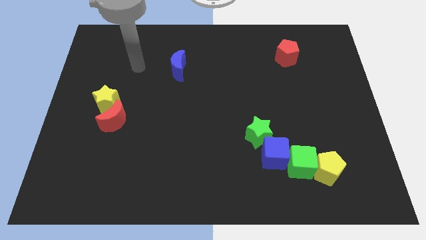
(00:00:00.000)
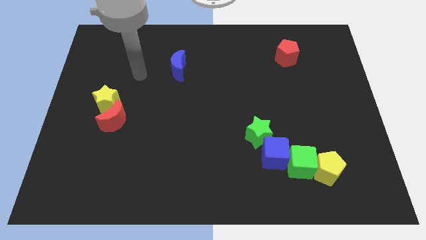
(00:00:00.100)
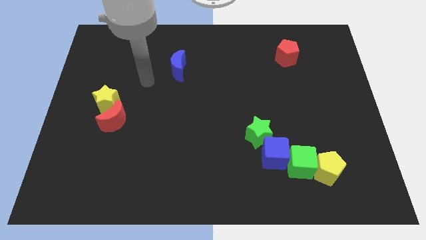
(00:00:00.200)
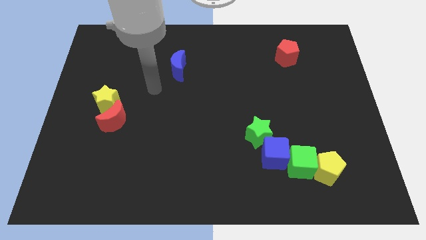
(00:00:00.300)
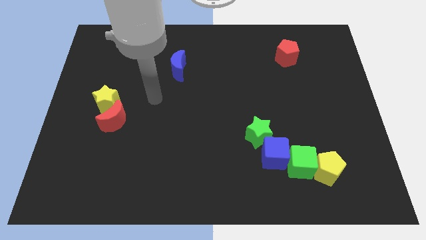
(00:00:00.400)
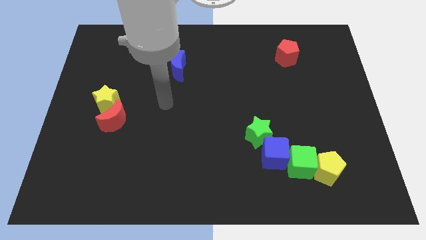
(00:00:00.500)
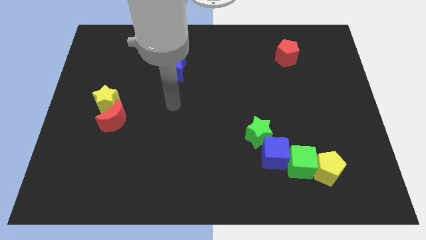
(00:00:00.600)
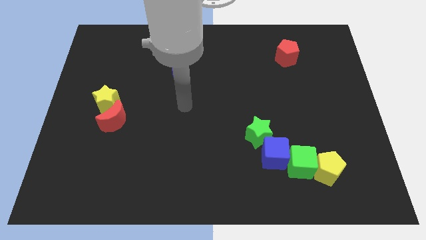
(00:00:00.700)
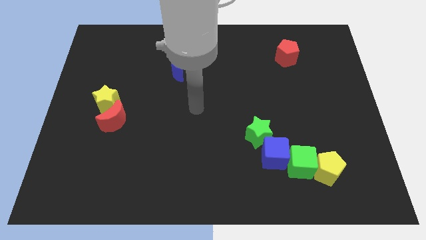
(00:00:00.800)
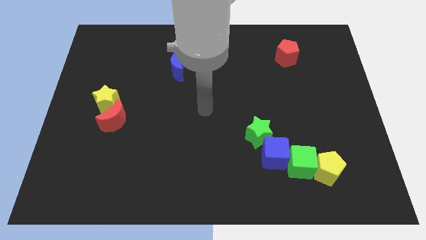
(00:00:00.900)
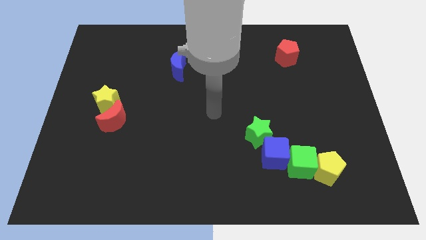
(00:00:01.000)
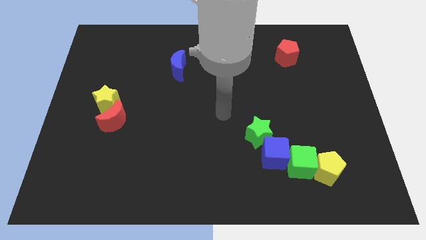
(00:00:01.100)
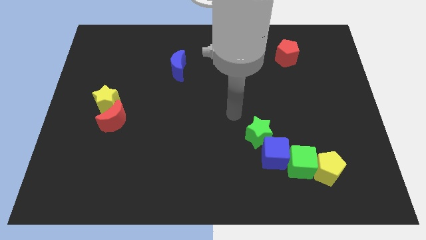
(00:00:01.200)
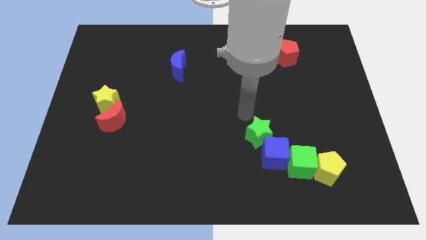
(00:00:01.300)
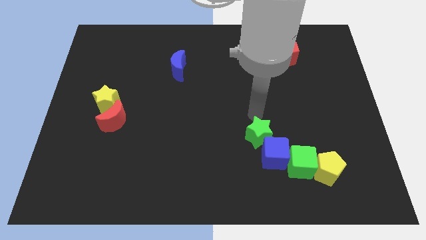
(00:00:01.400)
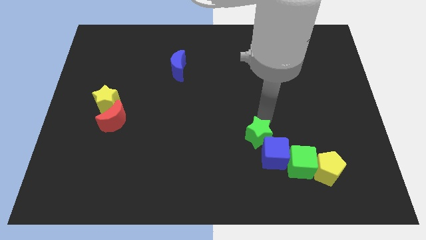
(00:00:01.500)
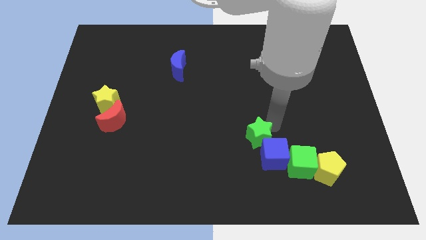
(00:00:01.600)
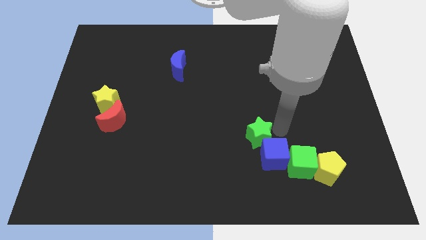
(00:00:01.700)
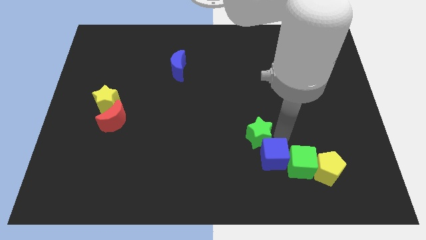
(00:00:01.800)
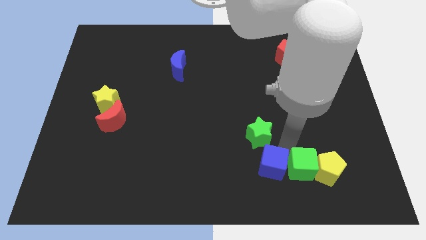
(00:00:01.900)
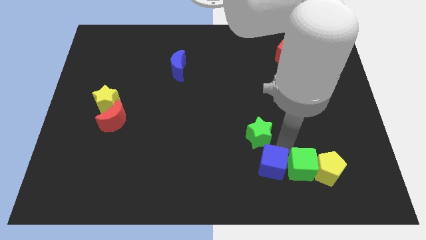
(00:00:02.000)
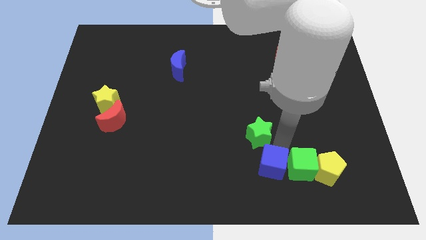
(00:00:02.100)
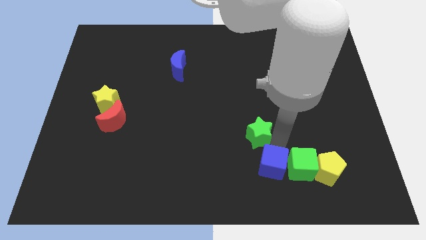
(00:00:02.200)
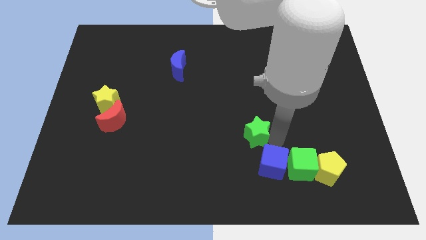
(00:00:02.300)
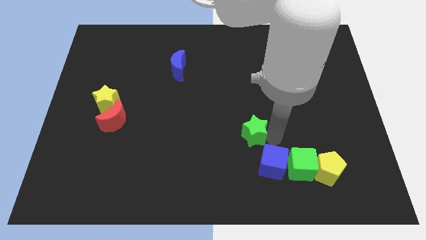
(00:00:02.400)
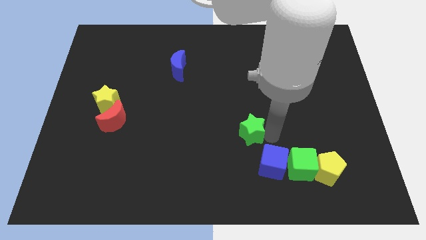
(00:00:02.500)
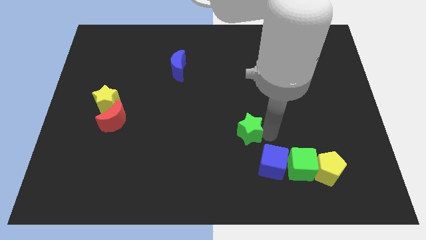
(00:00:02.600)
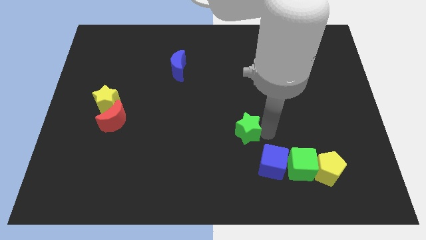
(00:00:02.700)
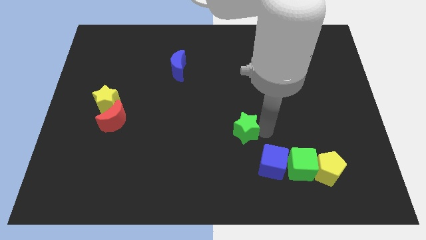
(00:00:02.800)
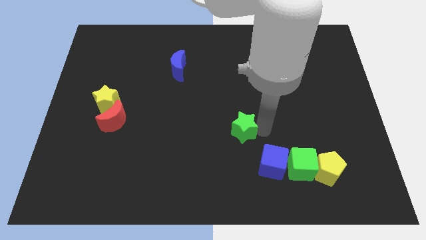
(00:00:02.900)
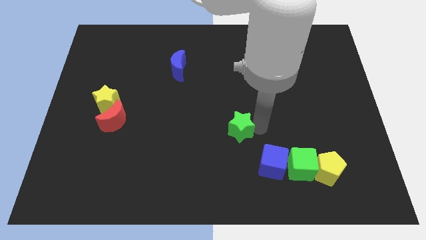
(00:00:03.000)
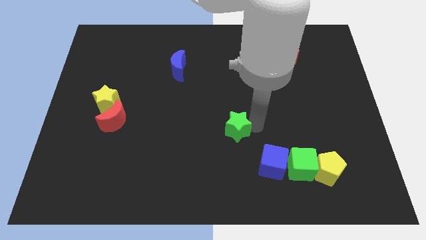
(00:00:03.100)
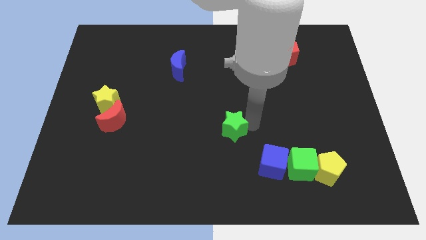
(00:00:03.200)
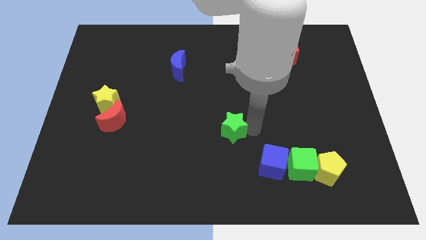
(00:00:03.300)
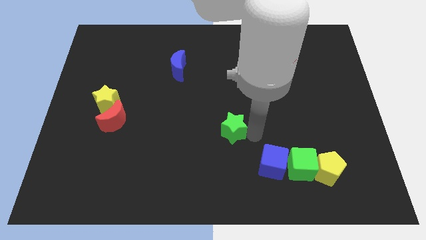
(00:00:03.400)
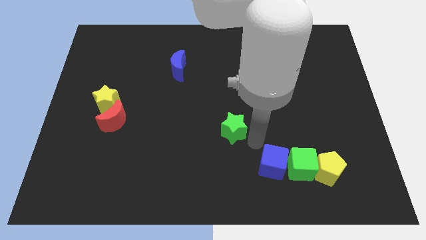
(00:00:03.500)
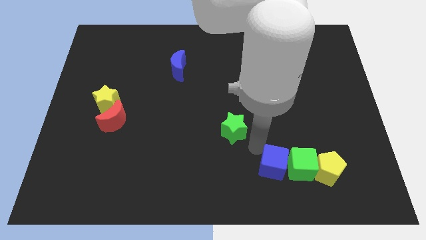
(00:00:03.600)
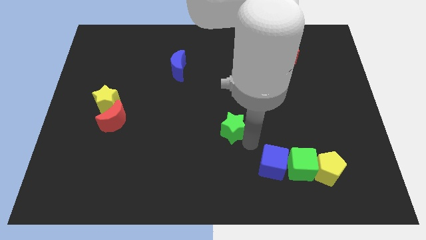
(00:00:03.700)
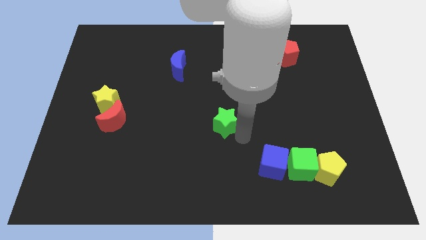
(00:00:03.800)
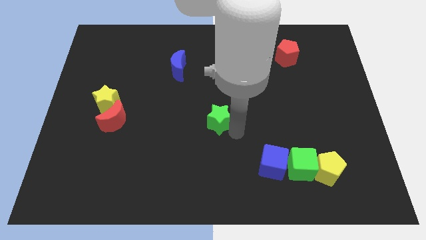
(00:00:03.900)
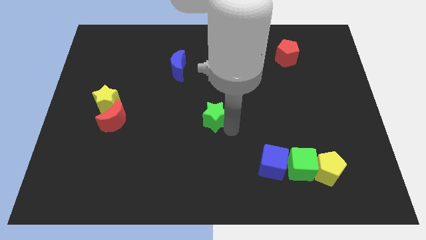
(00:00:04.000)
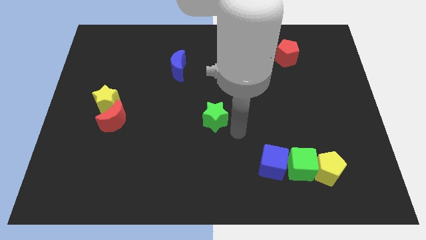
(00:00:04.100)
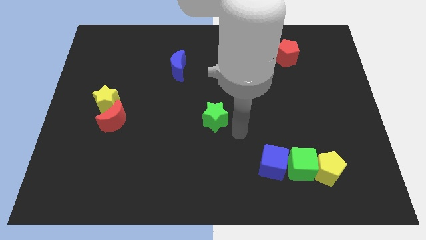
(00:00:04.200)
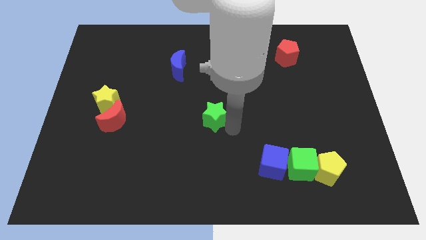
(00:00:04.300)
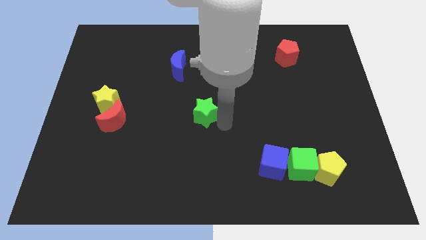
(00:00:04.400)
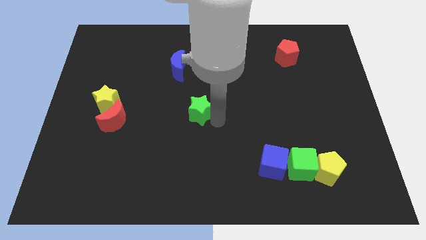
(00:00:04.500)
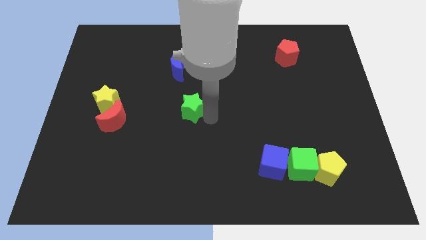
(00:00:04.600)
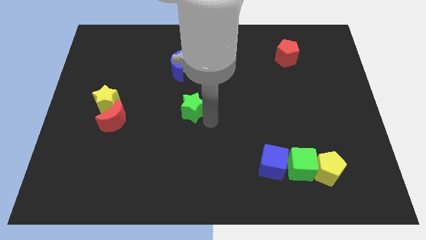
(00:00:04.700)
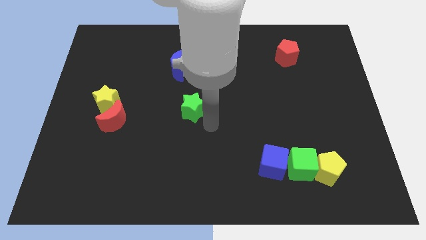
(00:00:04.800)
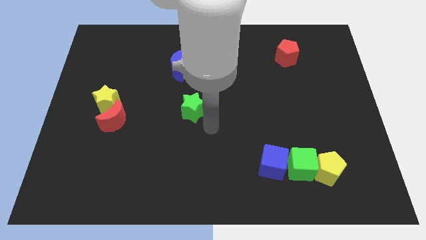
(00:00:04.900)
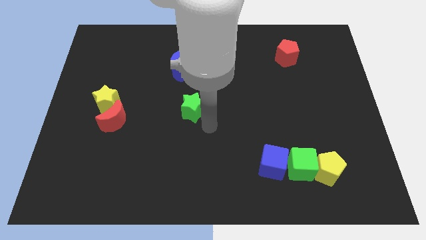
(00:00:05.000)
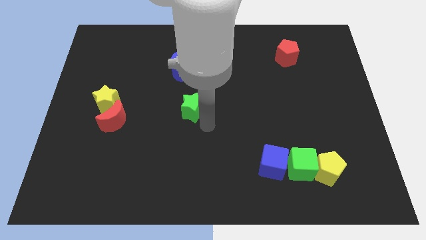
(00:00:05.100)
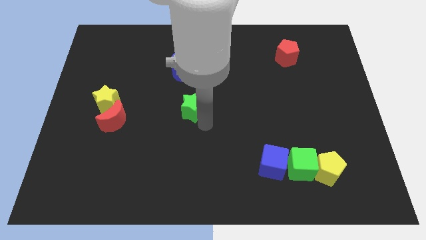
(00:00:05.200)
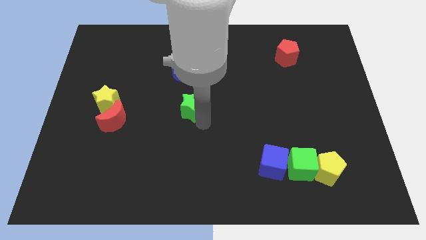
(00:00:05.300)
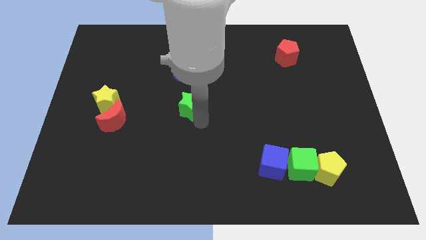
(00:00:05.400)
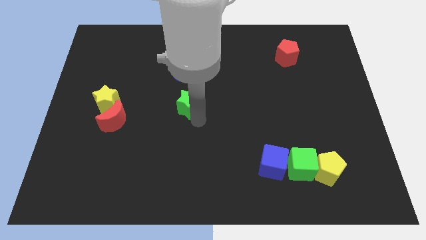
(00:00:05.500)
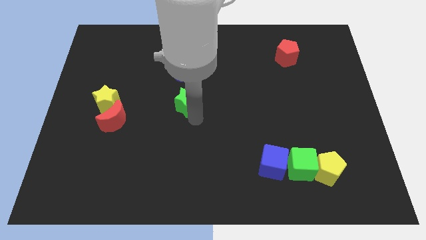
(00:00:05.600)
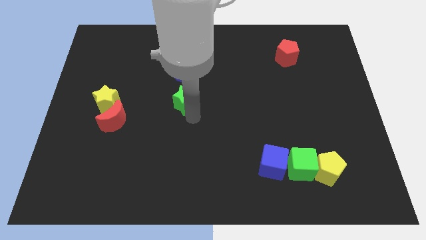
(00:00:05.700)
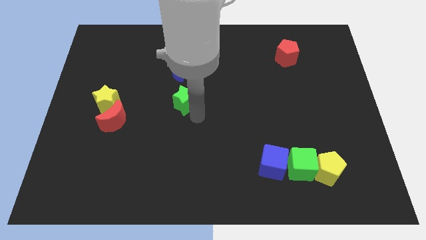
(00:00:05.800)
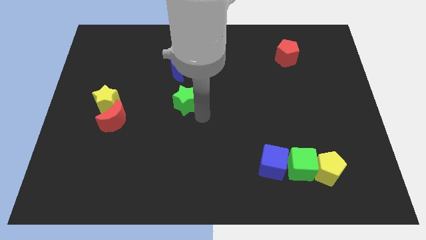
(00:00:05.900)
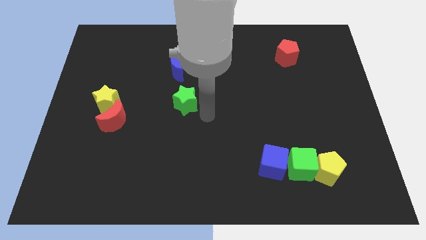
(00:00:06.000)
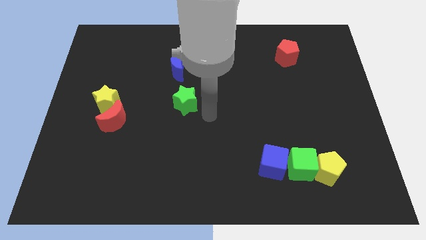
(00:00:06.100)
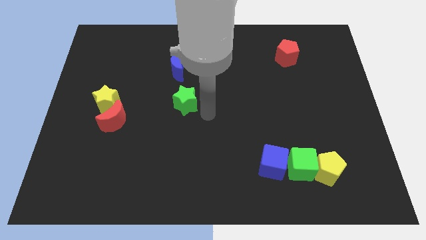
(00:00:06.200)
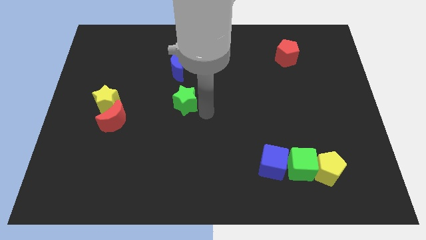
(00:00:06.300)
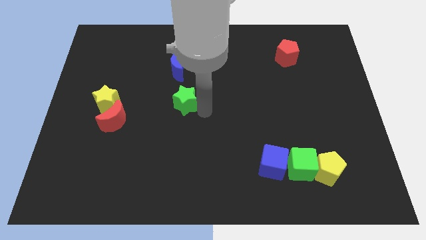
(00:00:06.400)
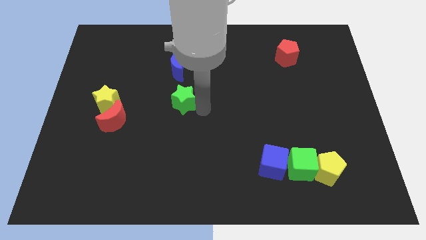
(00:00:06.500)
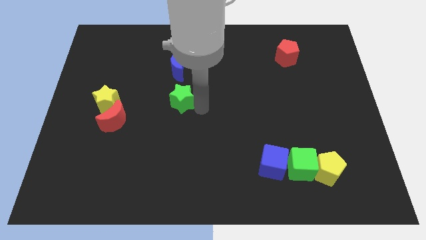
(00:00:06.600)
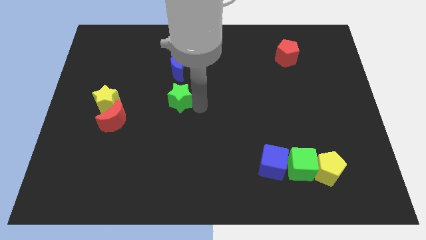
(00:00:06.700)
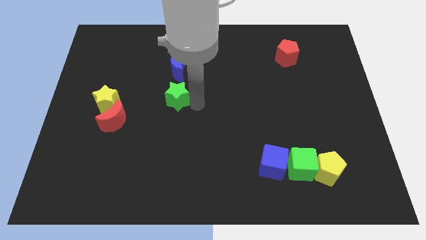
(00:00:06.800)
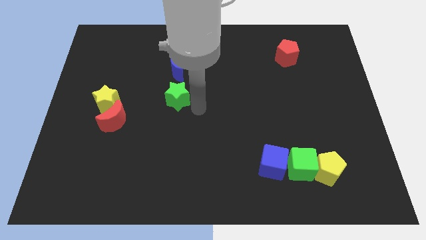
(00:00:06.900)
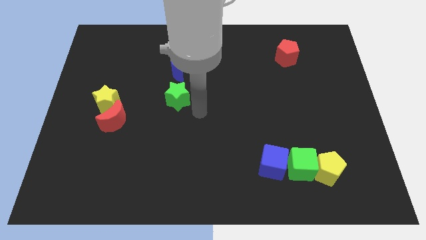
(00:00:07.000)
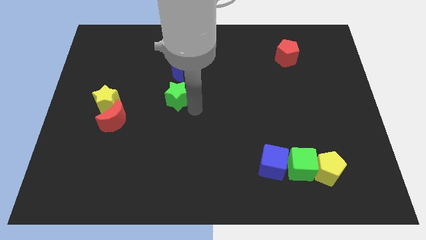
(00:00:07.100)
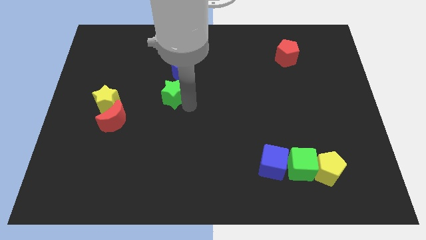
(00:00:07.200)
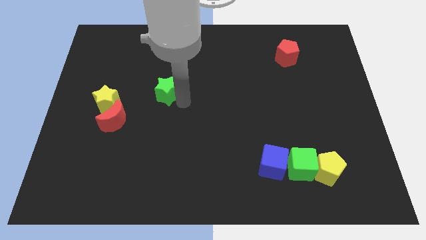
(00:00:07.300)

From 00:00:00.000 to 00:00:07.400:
push the green star diagonally down and to the left of the blue moon
